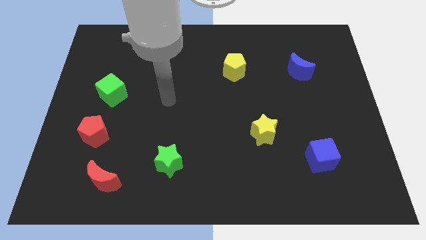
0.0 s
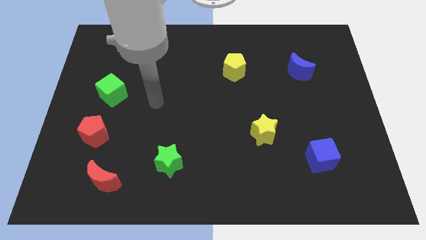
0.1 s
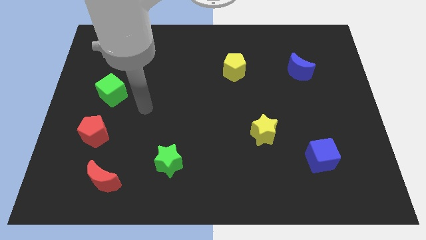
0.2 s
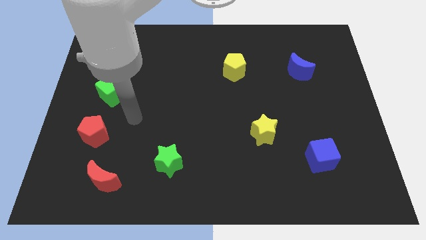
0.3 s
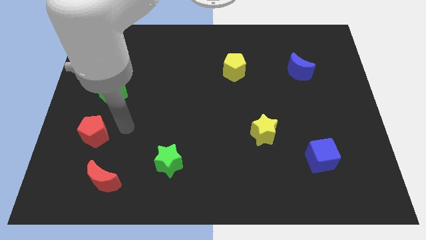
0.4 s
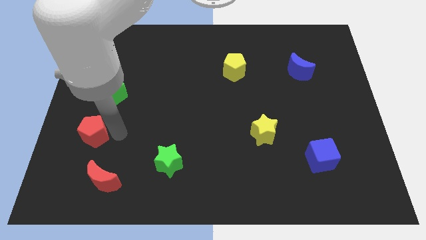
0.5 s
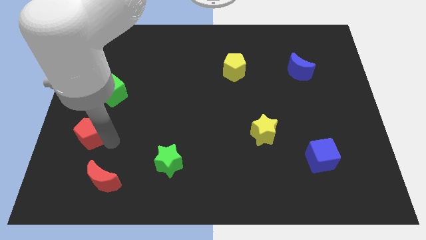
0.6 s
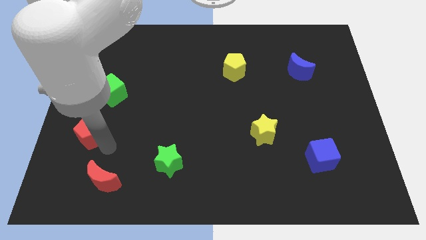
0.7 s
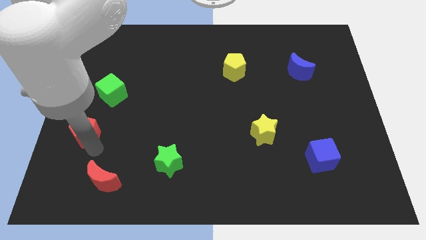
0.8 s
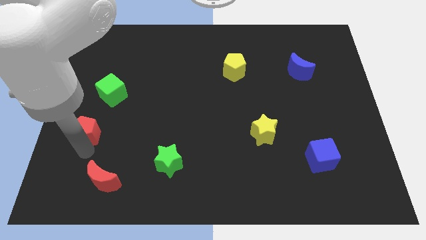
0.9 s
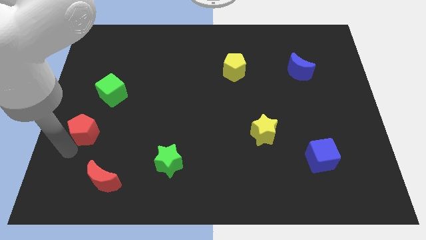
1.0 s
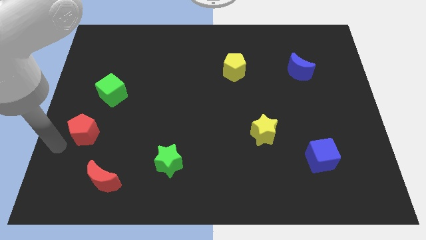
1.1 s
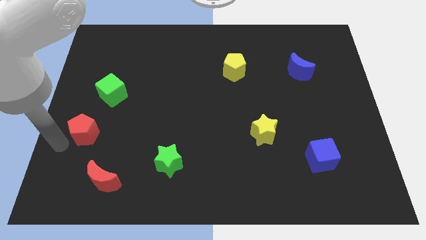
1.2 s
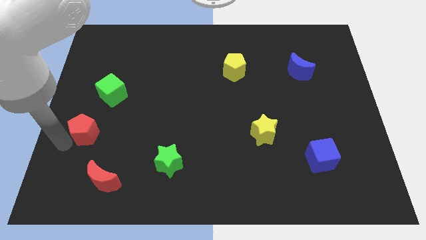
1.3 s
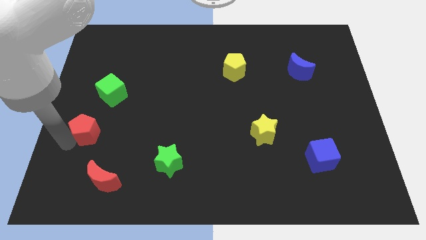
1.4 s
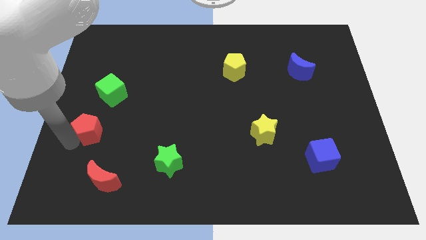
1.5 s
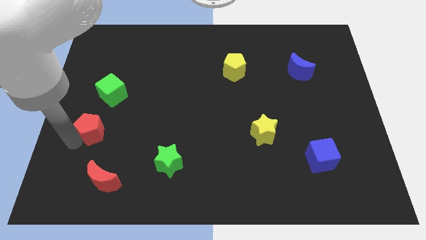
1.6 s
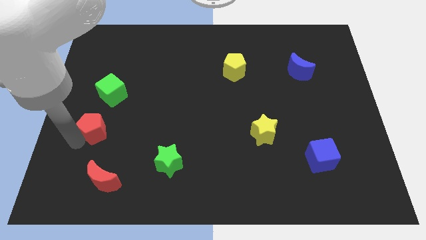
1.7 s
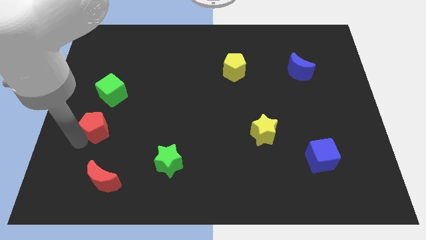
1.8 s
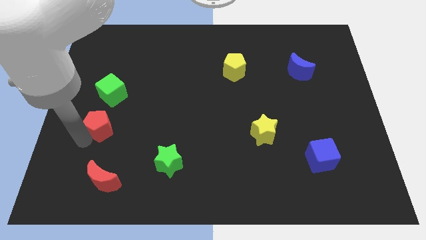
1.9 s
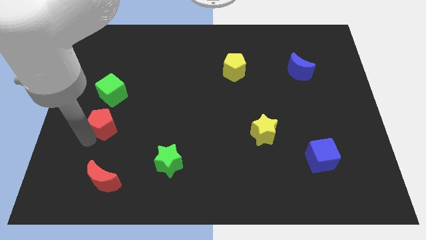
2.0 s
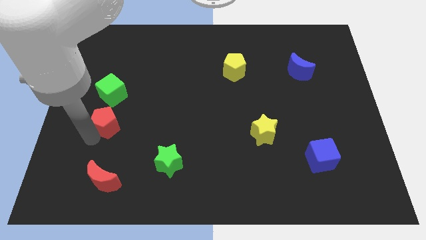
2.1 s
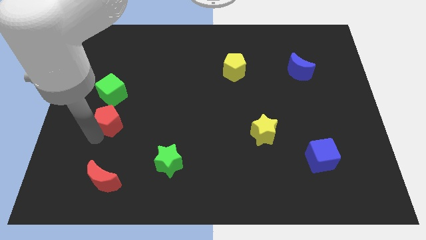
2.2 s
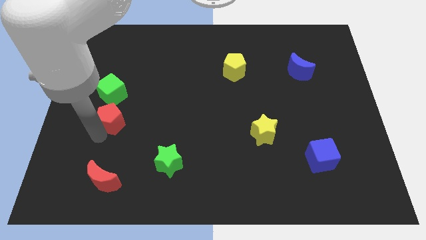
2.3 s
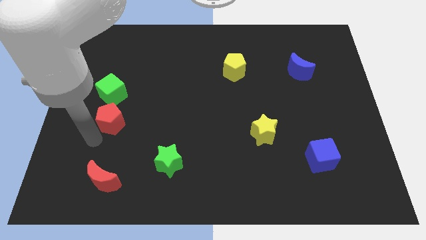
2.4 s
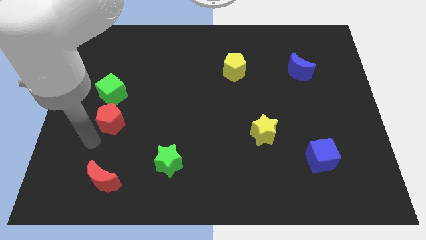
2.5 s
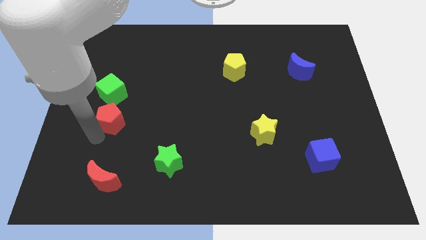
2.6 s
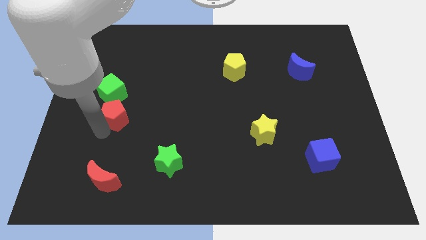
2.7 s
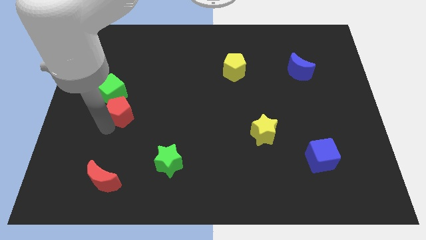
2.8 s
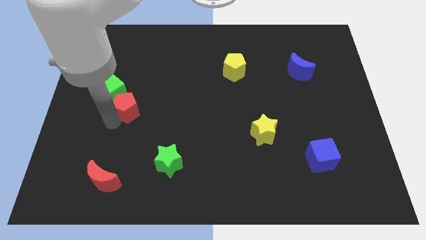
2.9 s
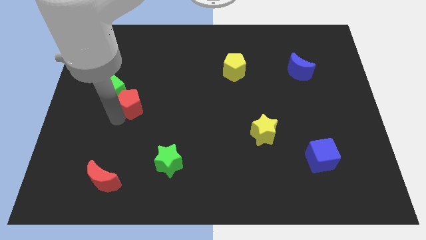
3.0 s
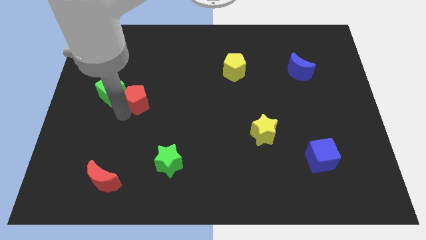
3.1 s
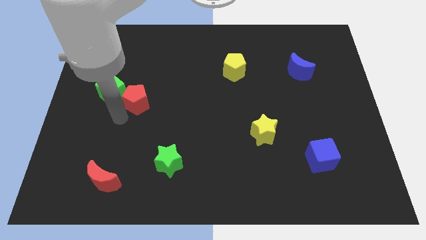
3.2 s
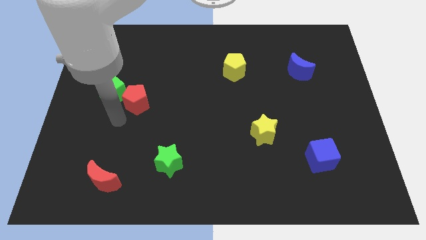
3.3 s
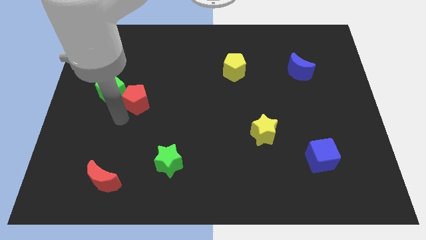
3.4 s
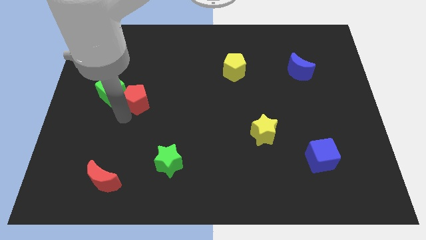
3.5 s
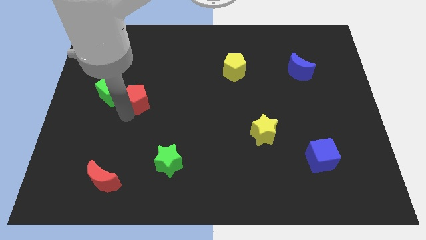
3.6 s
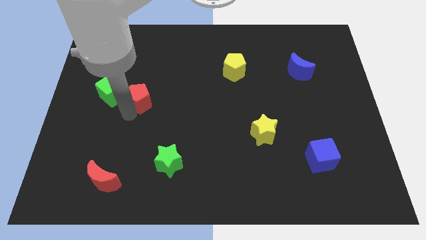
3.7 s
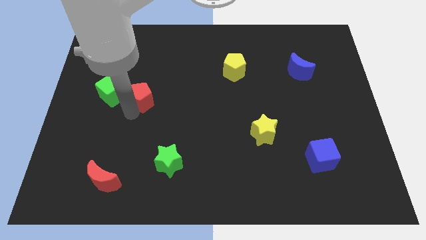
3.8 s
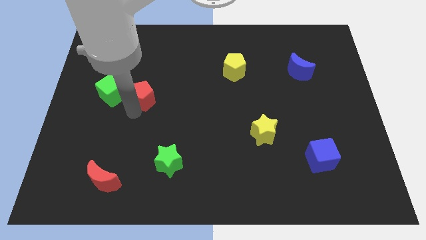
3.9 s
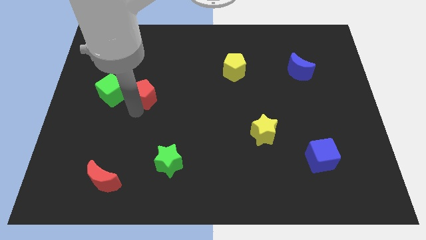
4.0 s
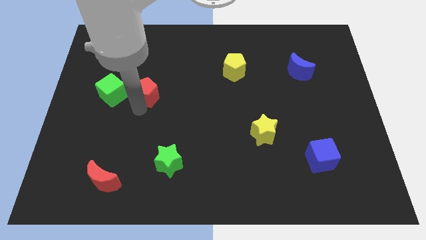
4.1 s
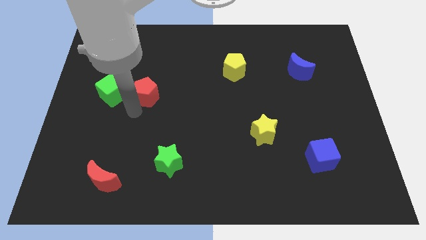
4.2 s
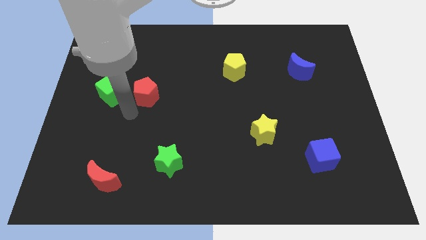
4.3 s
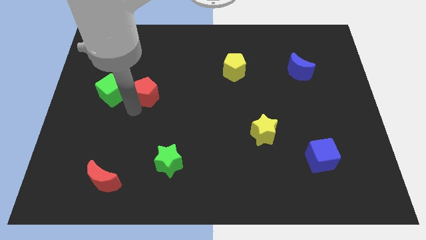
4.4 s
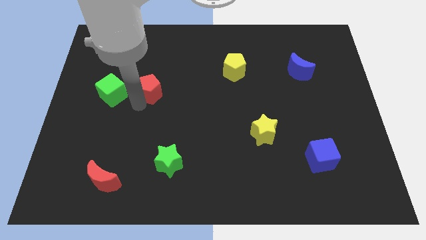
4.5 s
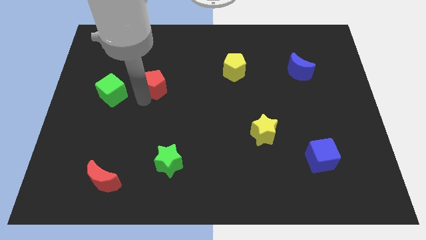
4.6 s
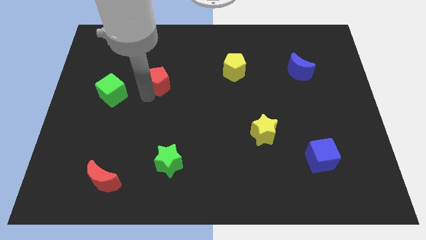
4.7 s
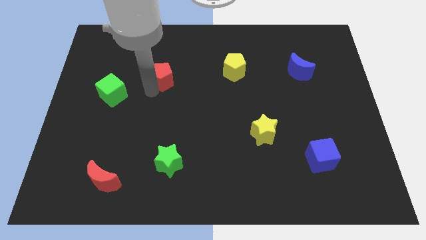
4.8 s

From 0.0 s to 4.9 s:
move the red pentagon up and right diagonally

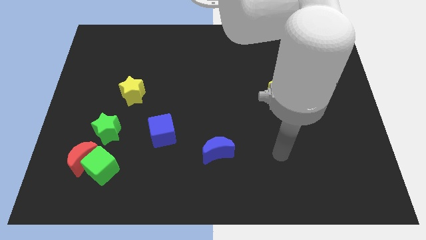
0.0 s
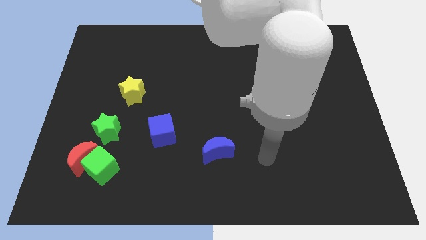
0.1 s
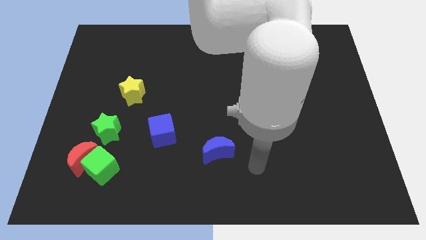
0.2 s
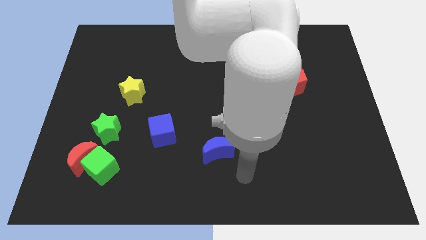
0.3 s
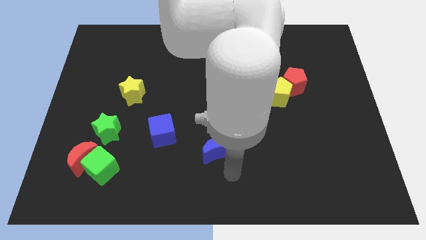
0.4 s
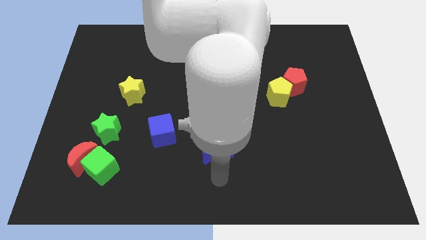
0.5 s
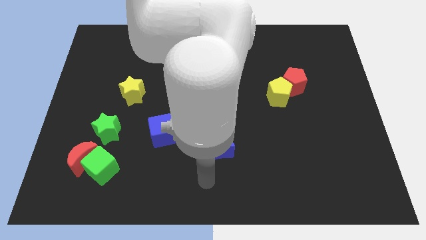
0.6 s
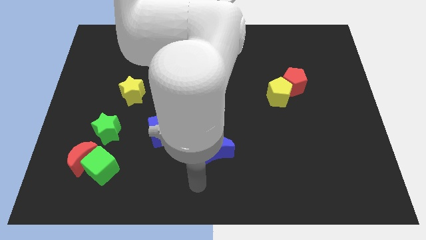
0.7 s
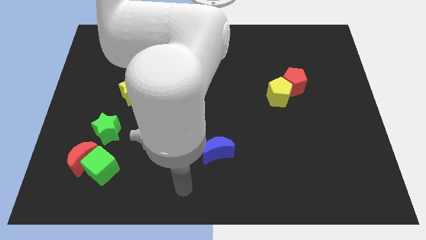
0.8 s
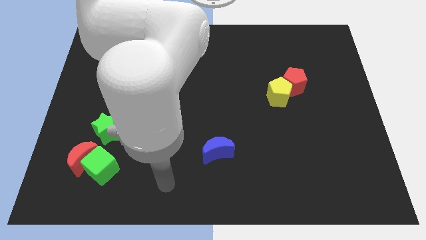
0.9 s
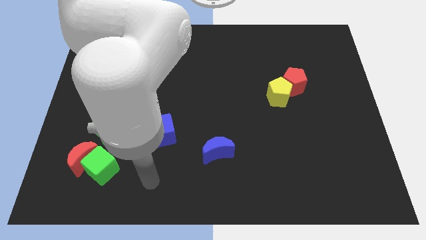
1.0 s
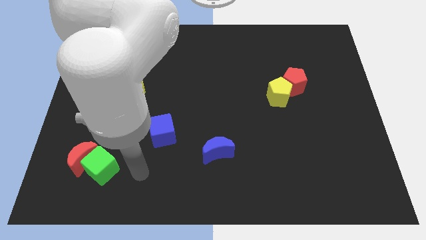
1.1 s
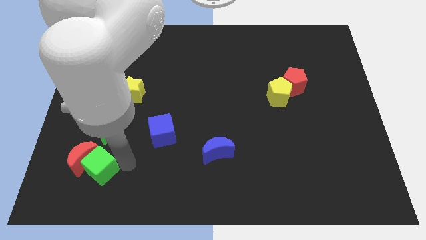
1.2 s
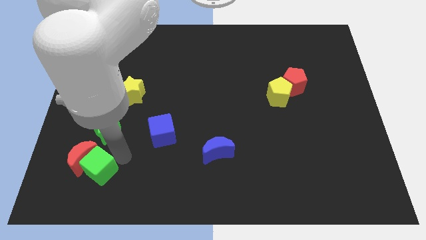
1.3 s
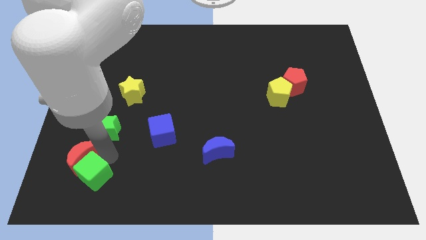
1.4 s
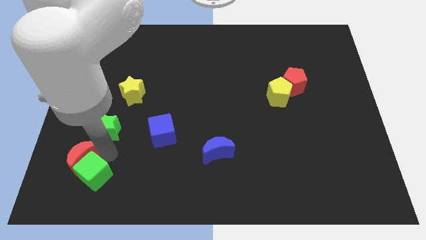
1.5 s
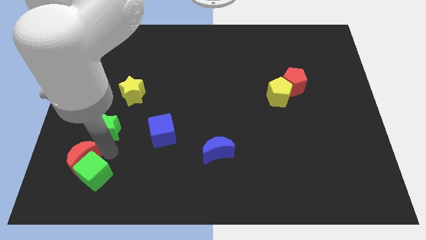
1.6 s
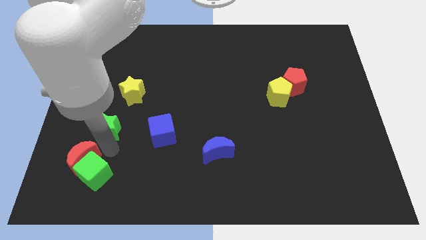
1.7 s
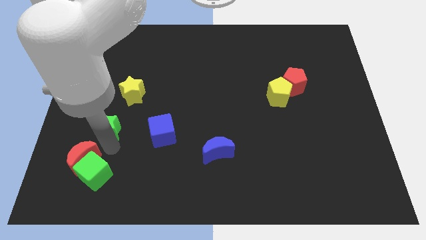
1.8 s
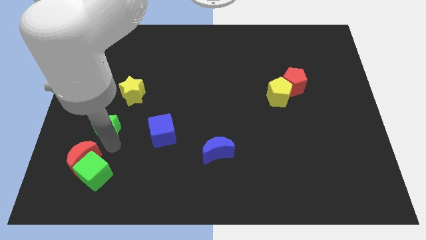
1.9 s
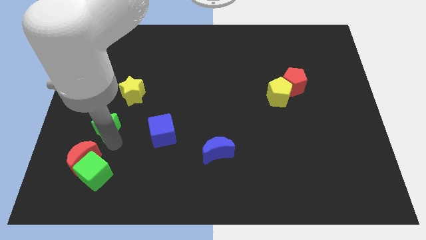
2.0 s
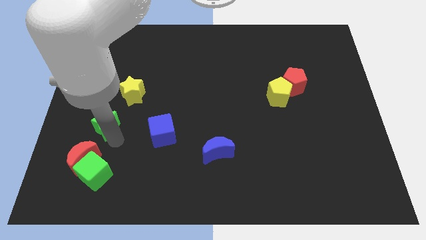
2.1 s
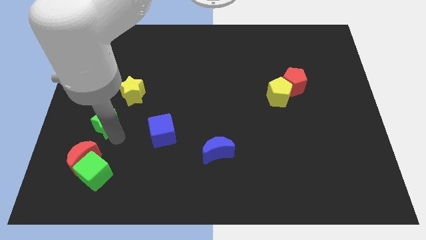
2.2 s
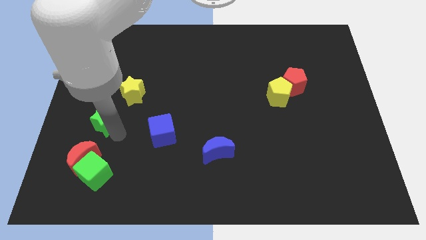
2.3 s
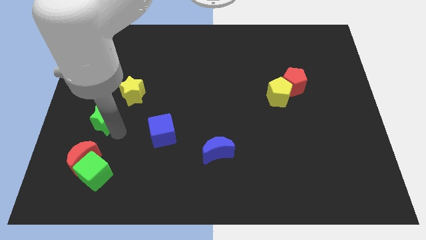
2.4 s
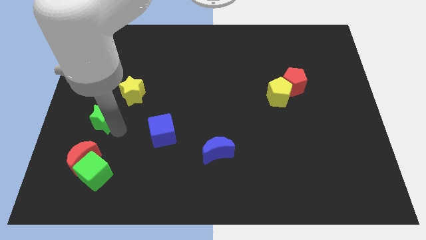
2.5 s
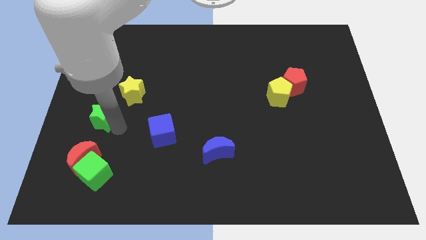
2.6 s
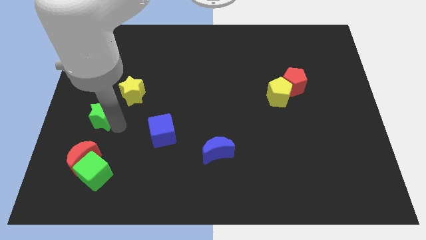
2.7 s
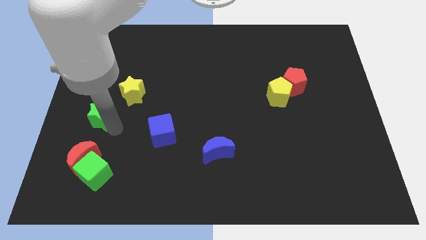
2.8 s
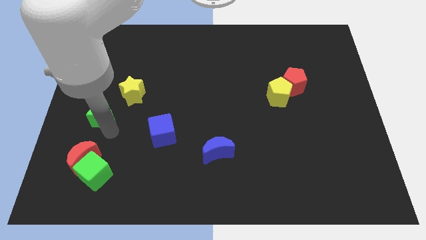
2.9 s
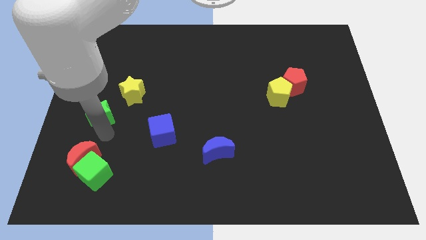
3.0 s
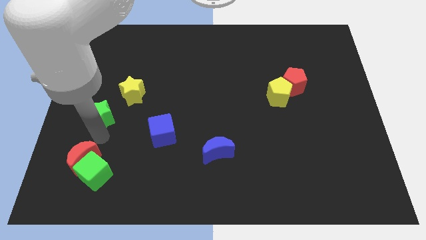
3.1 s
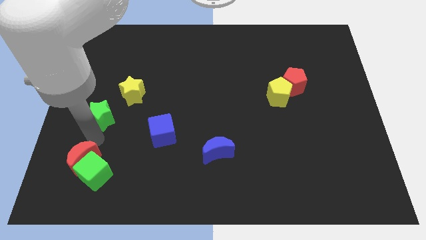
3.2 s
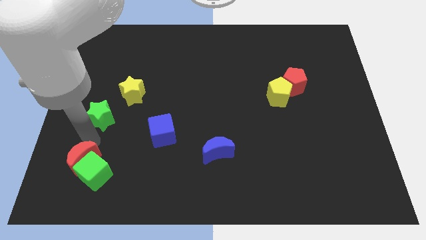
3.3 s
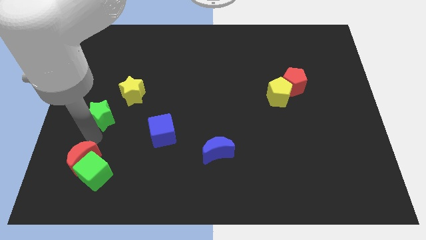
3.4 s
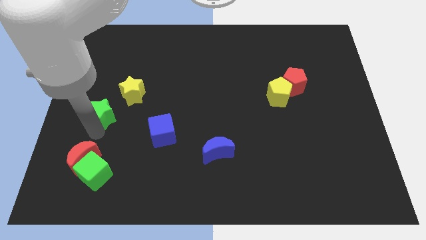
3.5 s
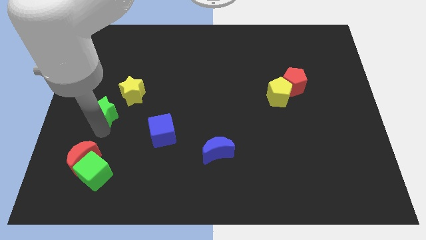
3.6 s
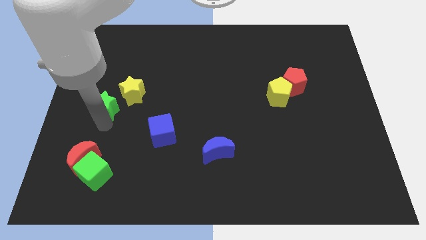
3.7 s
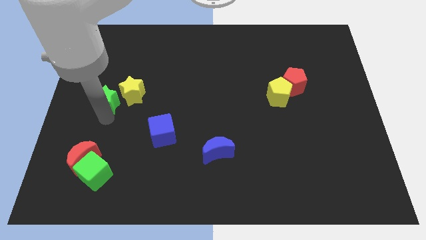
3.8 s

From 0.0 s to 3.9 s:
push the green star a little bit up
